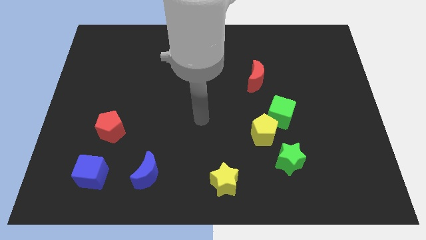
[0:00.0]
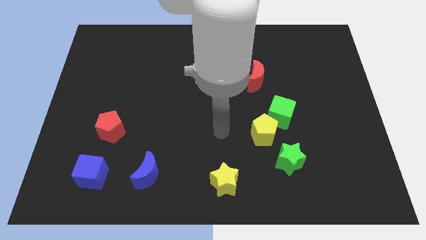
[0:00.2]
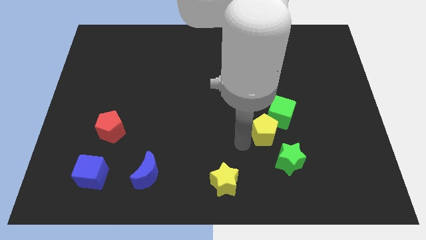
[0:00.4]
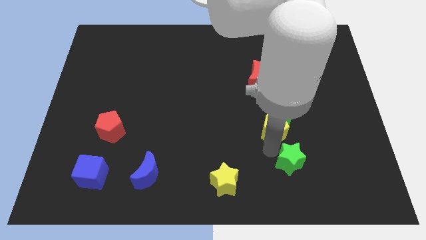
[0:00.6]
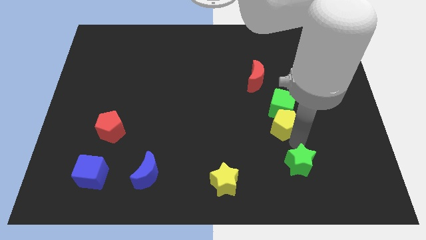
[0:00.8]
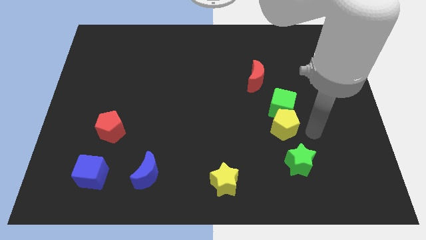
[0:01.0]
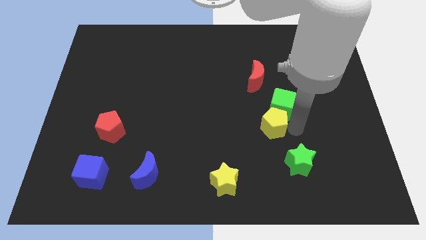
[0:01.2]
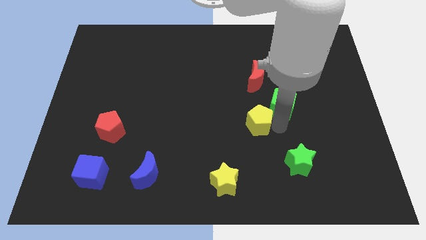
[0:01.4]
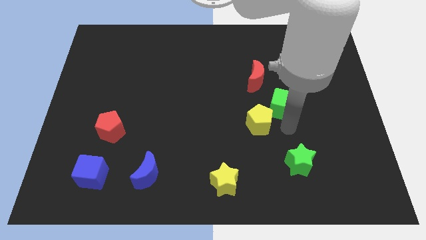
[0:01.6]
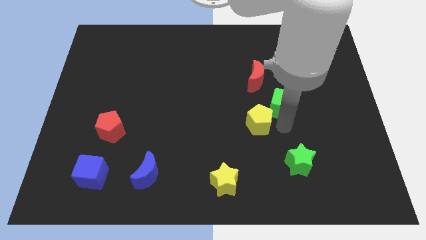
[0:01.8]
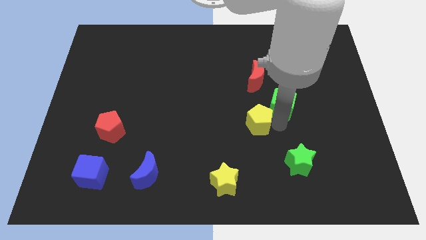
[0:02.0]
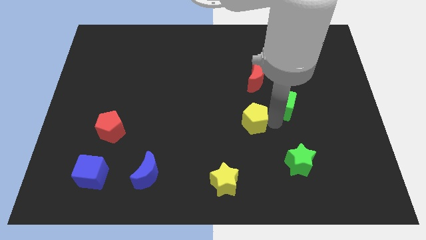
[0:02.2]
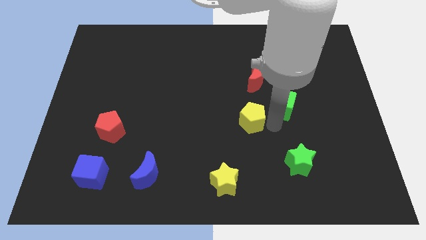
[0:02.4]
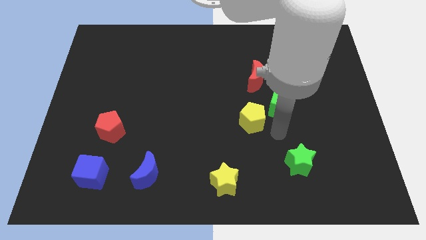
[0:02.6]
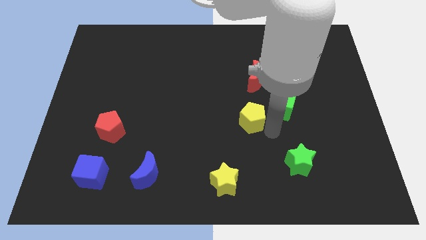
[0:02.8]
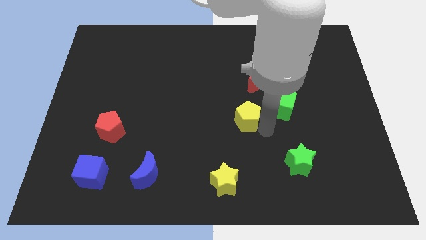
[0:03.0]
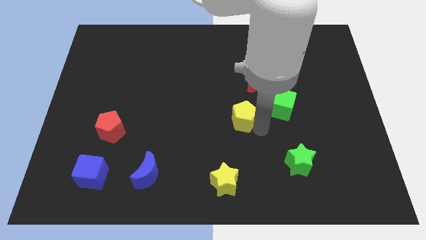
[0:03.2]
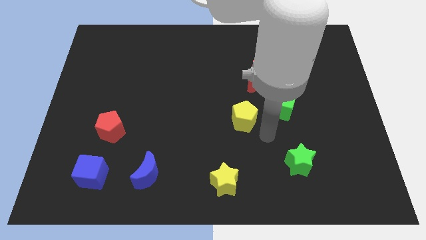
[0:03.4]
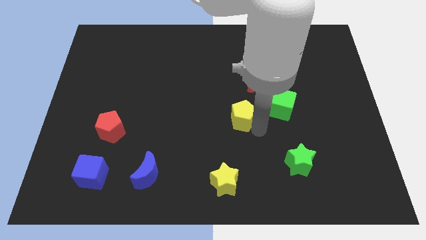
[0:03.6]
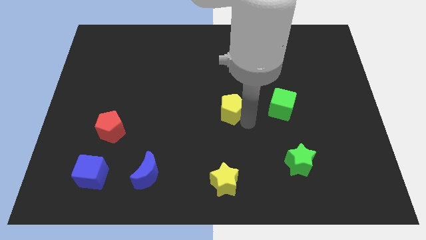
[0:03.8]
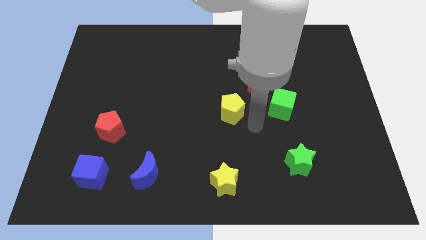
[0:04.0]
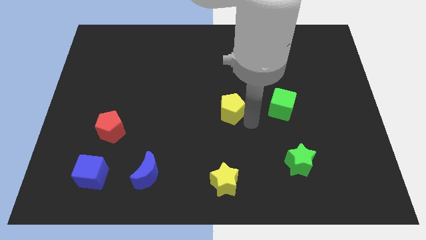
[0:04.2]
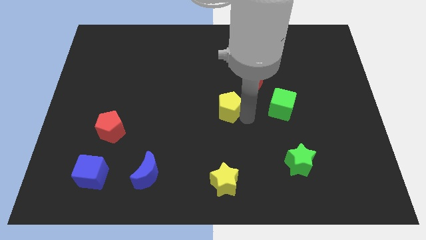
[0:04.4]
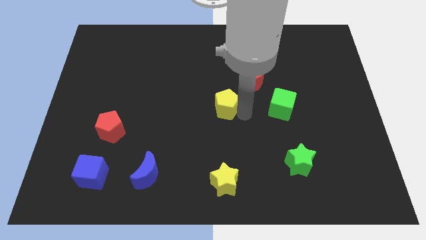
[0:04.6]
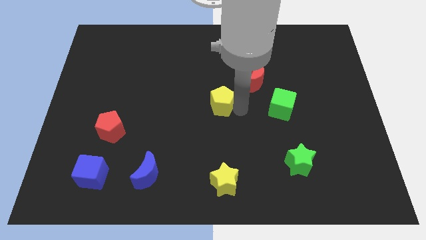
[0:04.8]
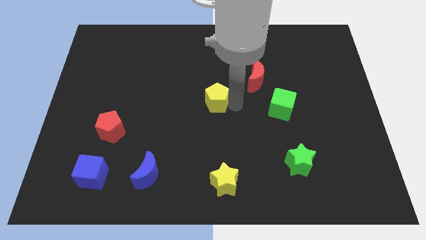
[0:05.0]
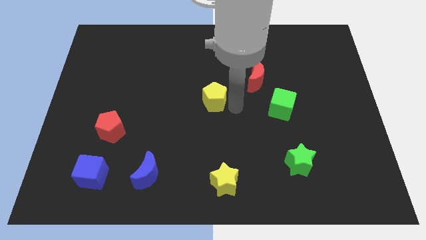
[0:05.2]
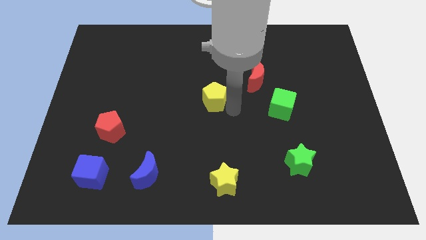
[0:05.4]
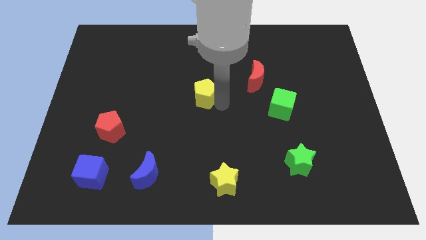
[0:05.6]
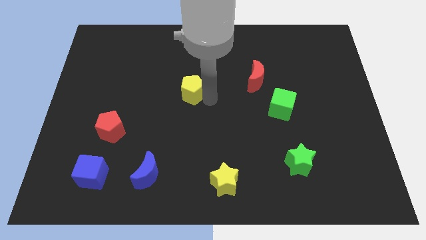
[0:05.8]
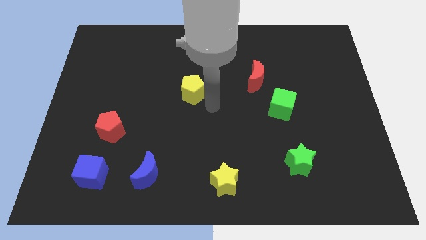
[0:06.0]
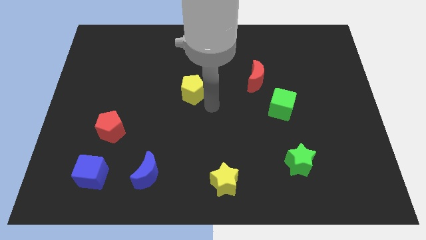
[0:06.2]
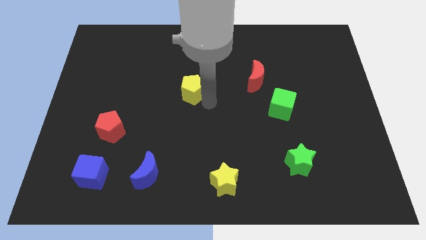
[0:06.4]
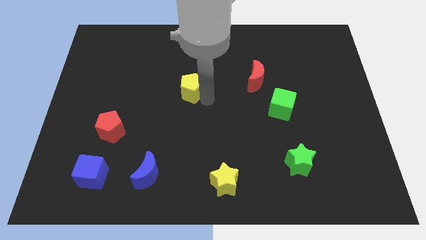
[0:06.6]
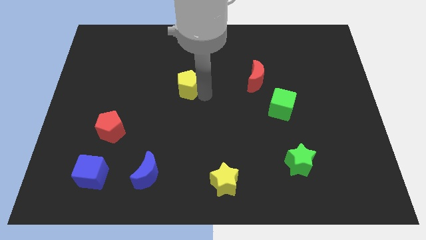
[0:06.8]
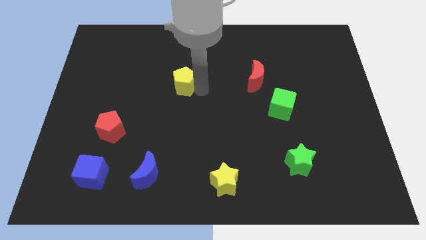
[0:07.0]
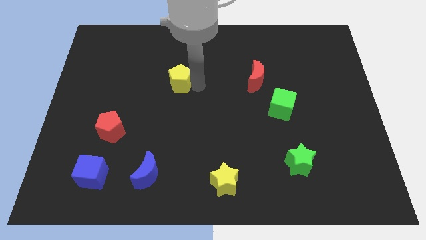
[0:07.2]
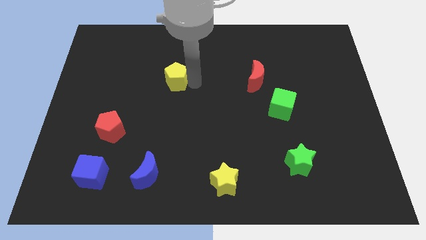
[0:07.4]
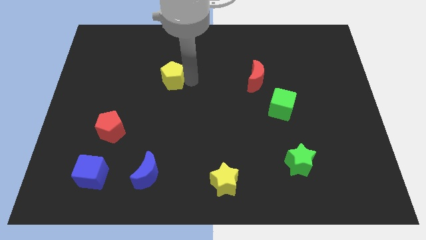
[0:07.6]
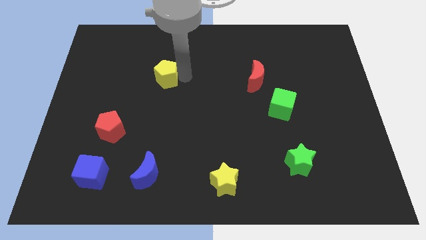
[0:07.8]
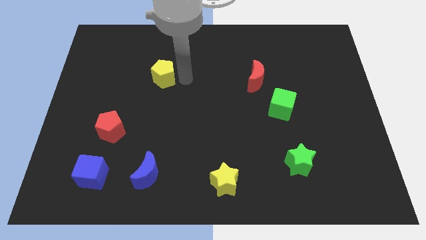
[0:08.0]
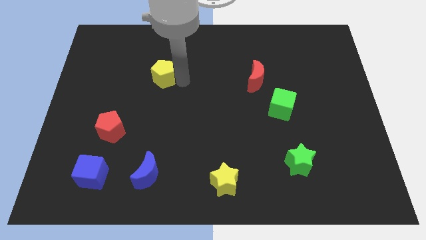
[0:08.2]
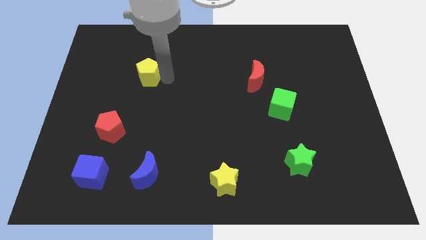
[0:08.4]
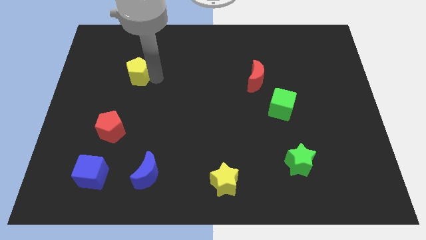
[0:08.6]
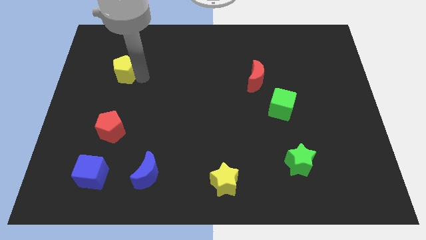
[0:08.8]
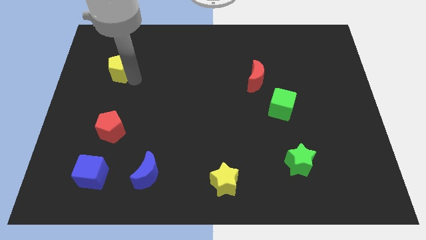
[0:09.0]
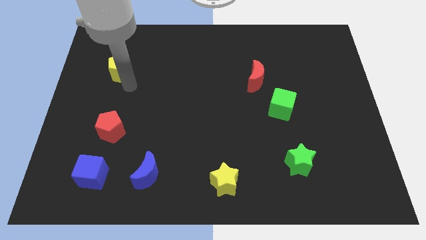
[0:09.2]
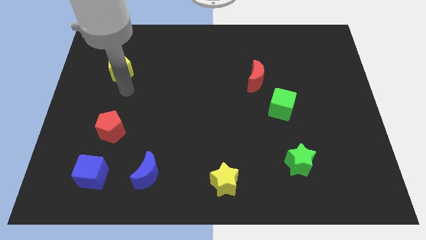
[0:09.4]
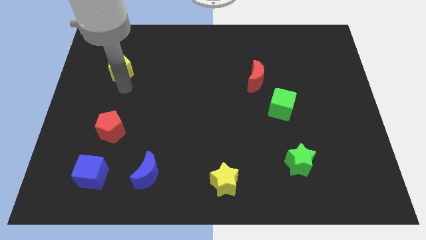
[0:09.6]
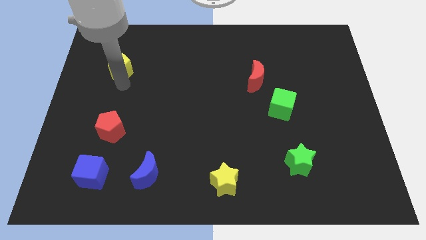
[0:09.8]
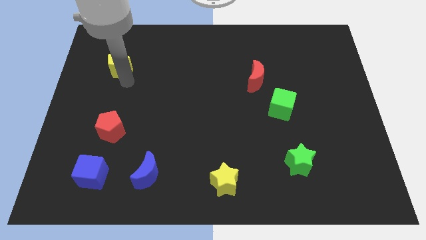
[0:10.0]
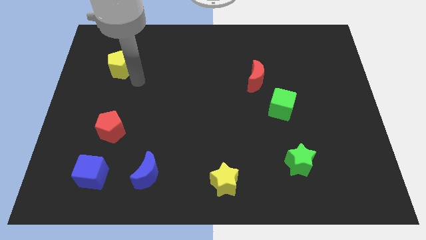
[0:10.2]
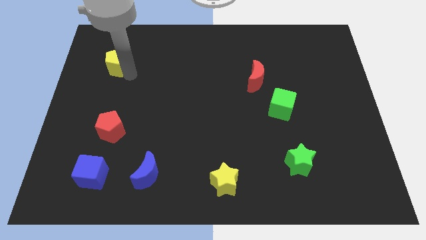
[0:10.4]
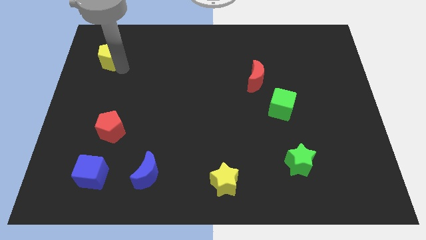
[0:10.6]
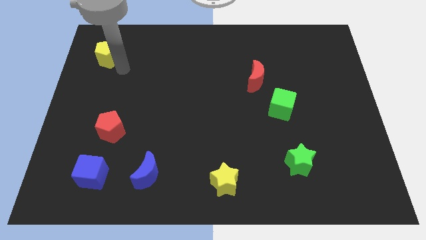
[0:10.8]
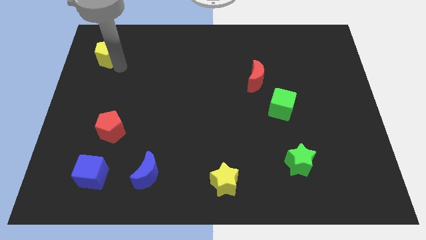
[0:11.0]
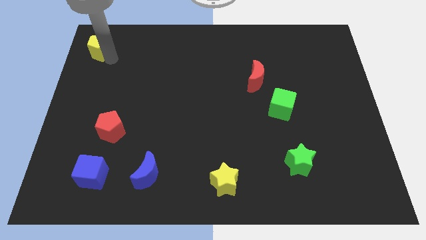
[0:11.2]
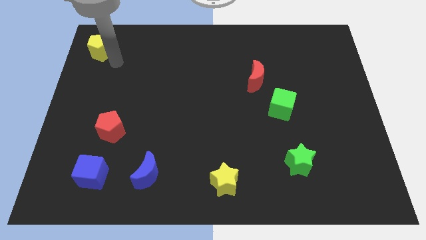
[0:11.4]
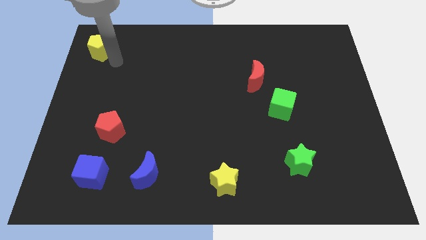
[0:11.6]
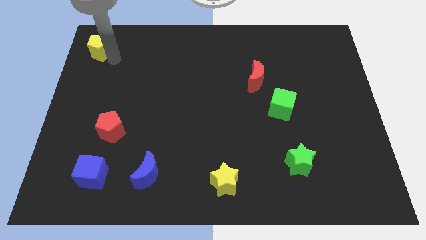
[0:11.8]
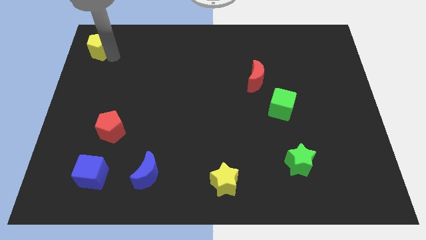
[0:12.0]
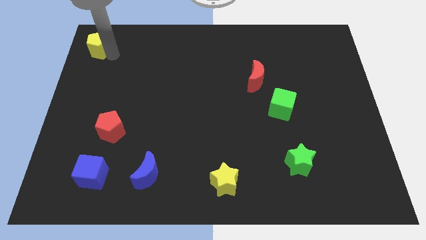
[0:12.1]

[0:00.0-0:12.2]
move the yellow pentagon to the top left corner

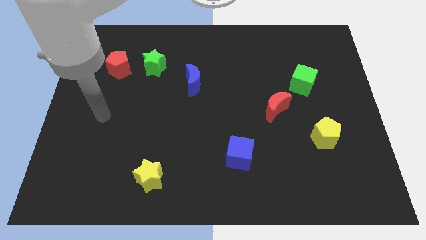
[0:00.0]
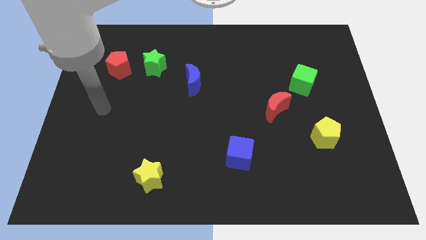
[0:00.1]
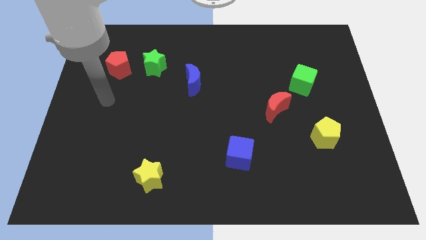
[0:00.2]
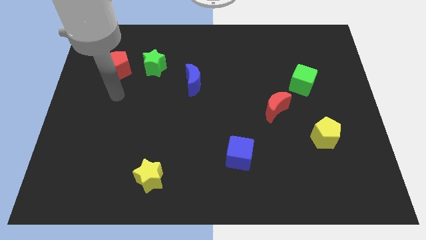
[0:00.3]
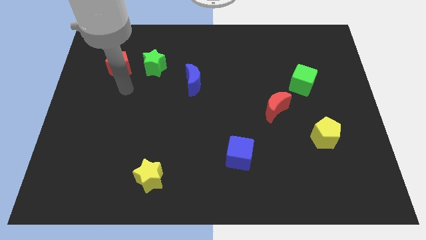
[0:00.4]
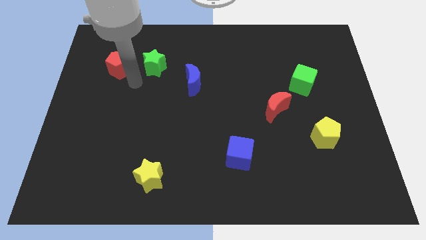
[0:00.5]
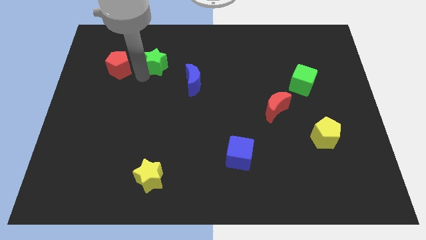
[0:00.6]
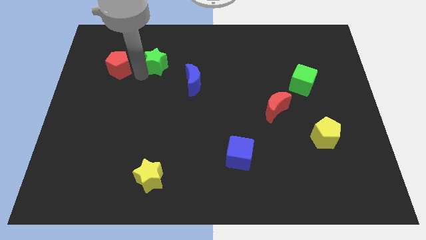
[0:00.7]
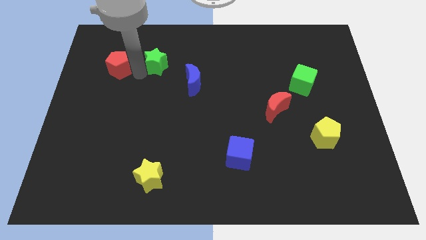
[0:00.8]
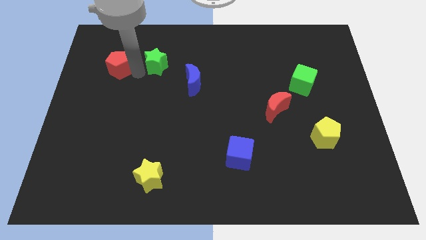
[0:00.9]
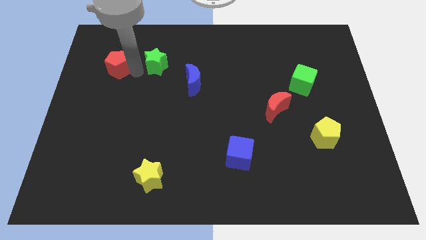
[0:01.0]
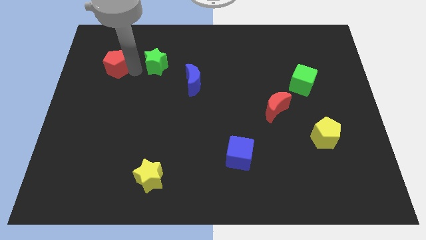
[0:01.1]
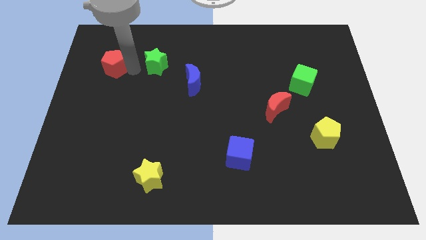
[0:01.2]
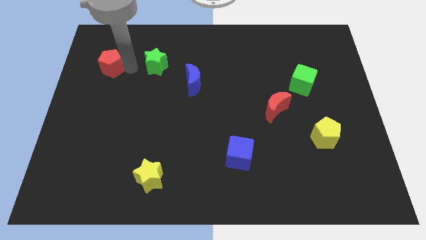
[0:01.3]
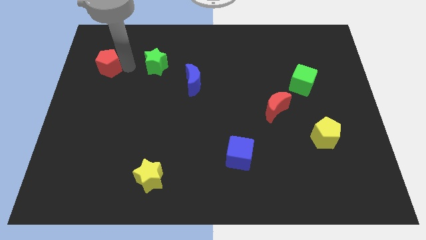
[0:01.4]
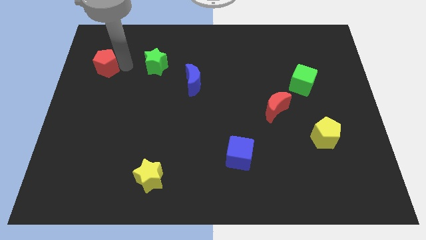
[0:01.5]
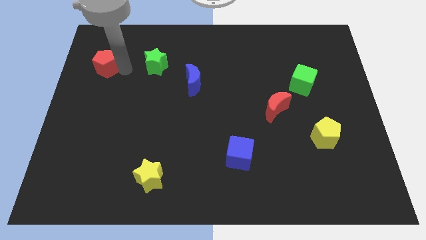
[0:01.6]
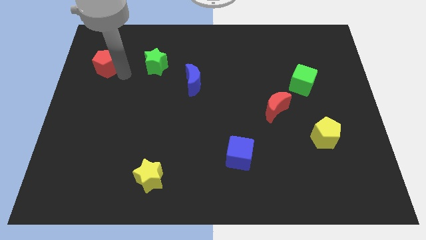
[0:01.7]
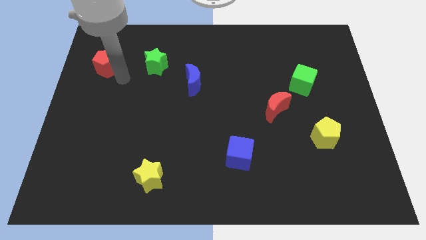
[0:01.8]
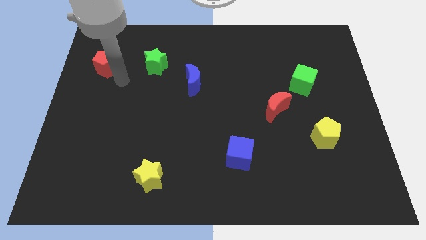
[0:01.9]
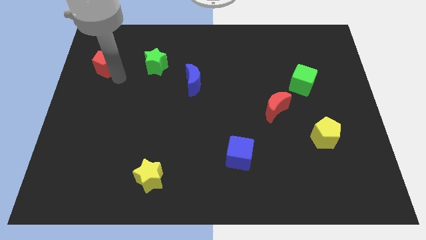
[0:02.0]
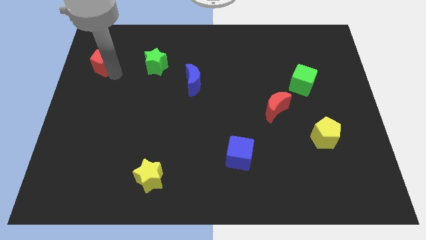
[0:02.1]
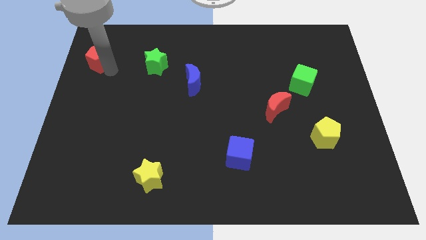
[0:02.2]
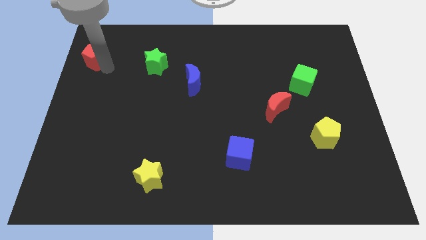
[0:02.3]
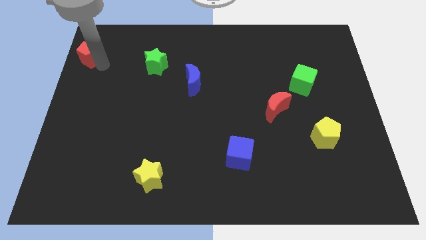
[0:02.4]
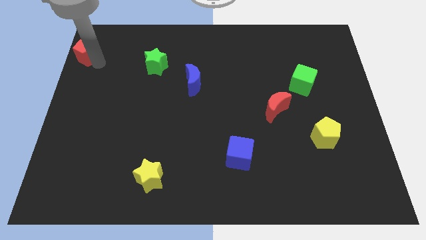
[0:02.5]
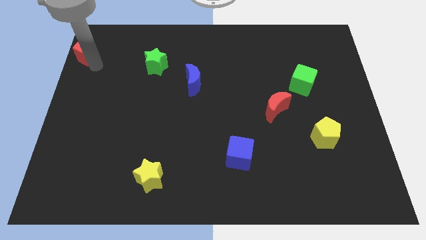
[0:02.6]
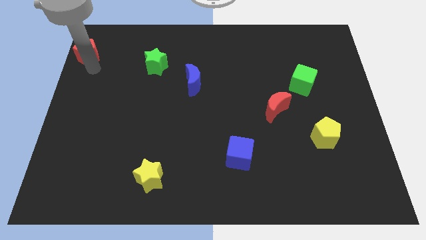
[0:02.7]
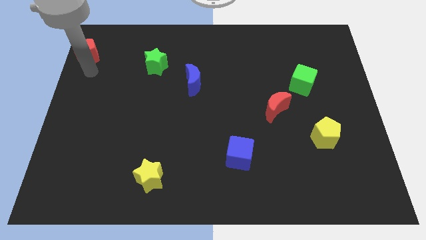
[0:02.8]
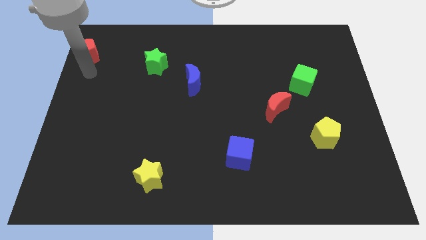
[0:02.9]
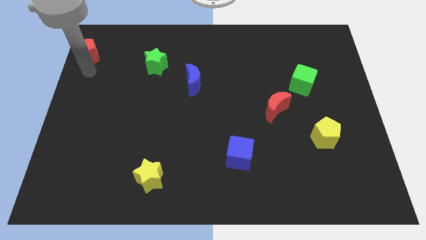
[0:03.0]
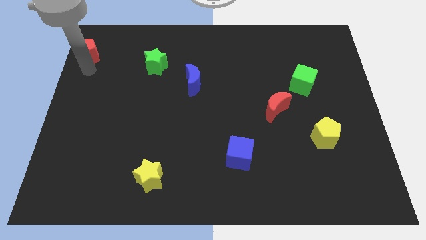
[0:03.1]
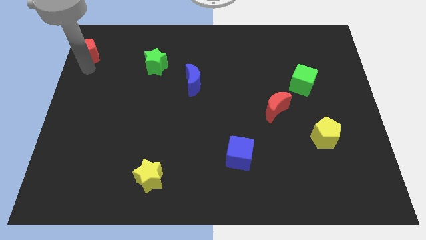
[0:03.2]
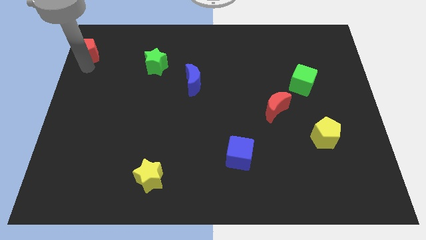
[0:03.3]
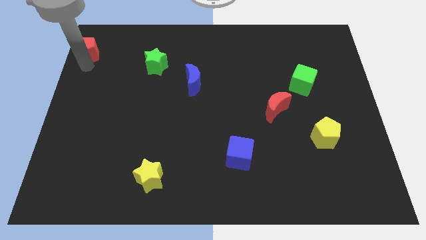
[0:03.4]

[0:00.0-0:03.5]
put the red pentagon to the upper left corner
